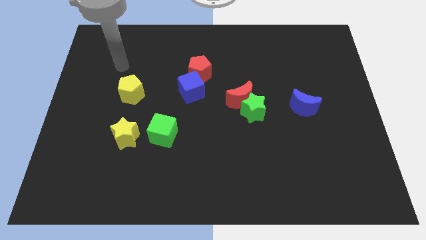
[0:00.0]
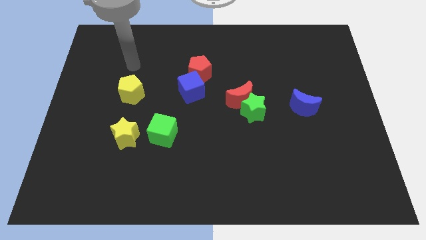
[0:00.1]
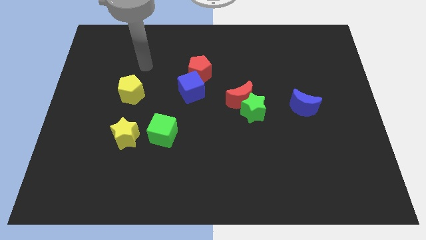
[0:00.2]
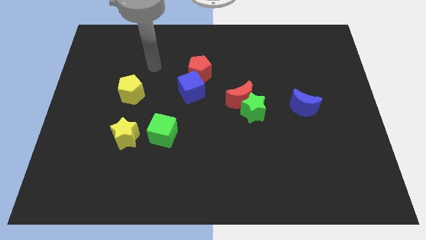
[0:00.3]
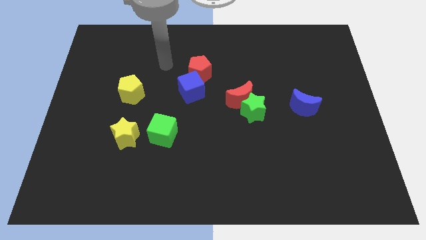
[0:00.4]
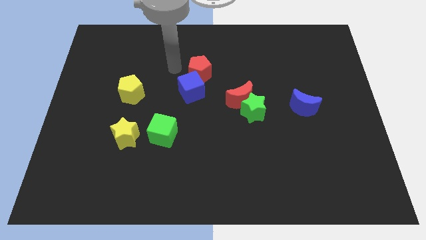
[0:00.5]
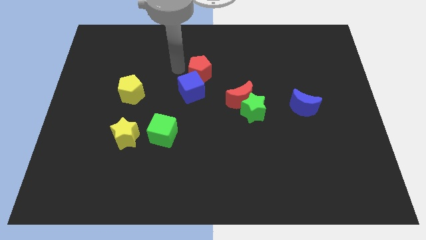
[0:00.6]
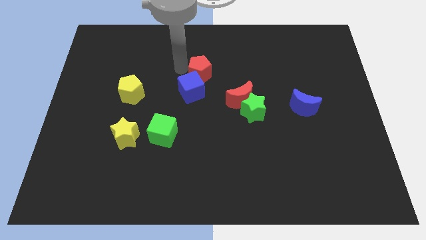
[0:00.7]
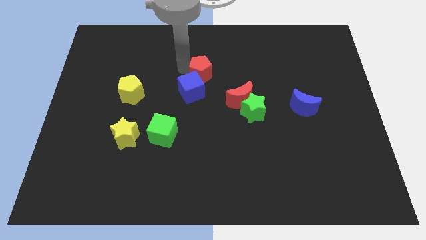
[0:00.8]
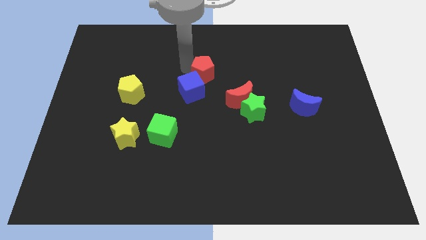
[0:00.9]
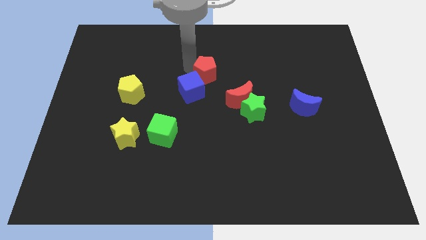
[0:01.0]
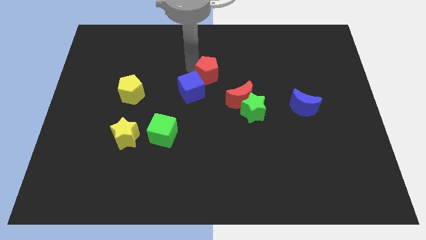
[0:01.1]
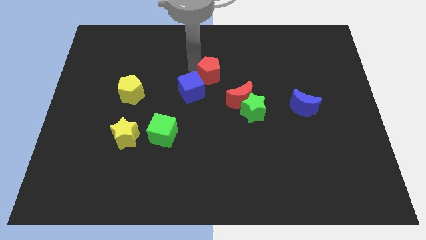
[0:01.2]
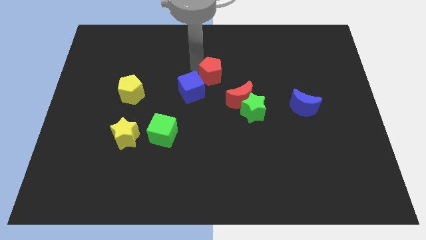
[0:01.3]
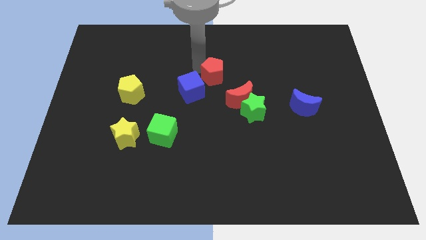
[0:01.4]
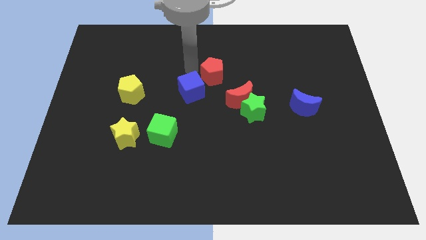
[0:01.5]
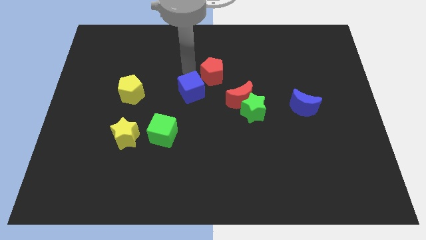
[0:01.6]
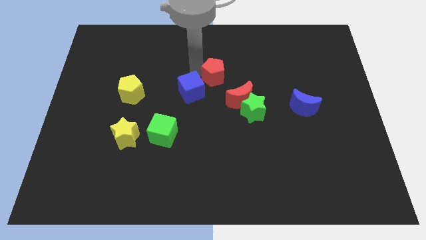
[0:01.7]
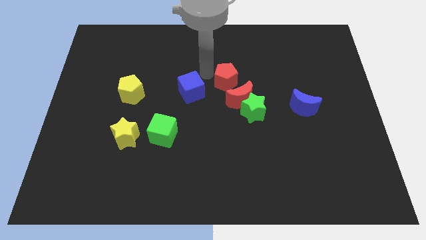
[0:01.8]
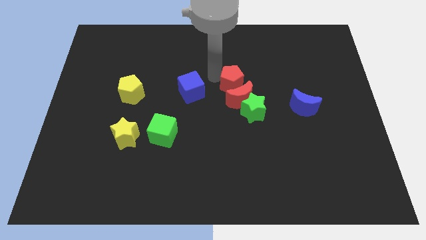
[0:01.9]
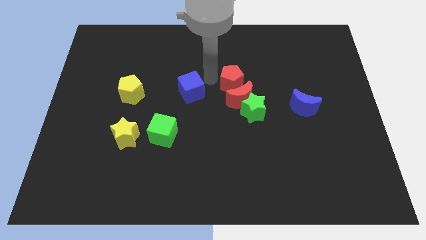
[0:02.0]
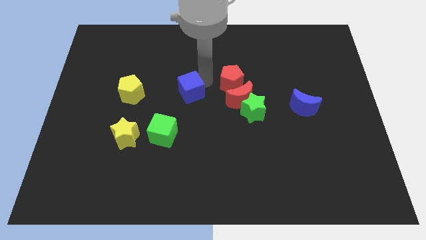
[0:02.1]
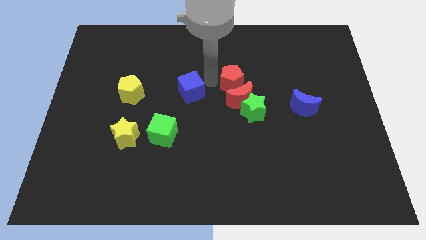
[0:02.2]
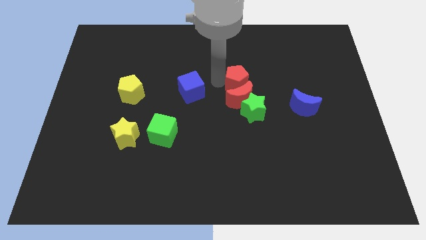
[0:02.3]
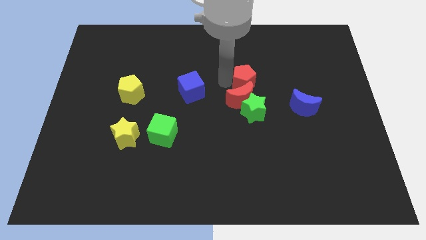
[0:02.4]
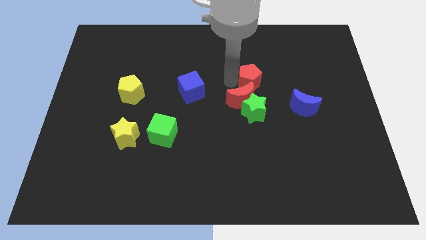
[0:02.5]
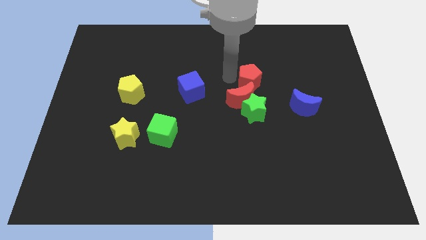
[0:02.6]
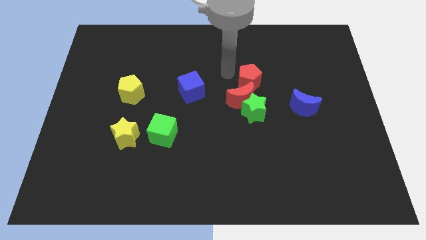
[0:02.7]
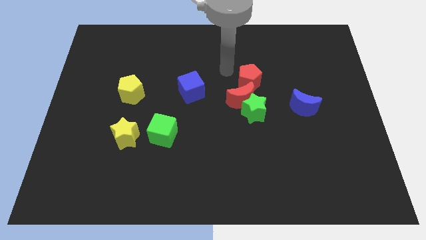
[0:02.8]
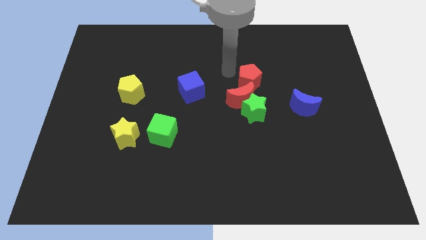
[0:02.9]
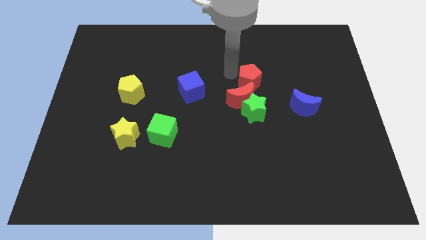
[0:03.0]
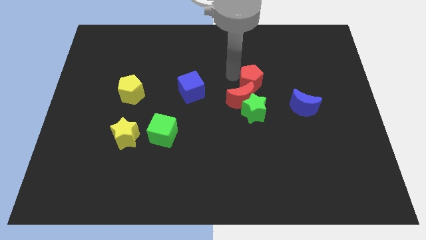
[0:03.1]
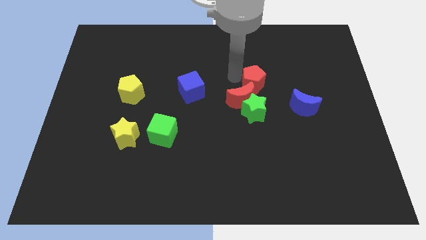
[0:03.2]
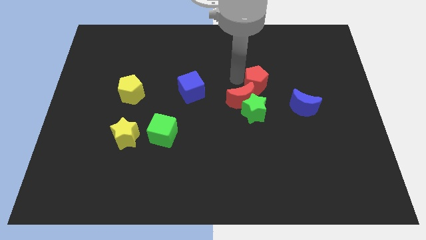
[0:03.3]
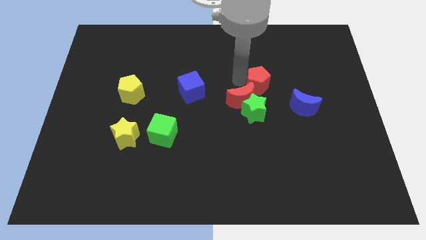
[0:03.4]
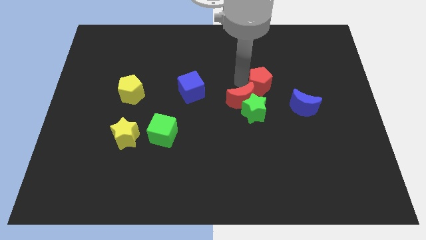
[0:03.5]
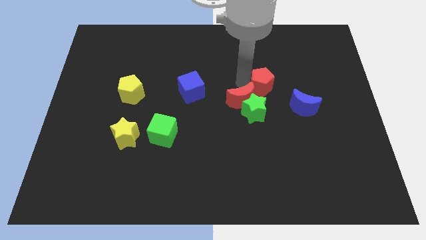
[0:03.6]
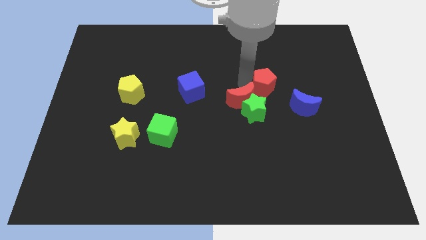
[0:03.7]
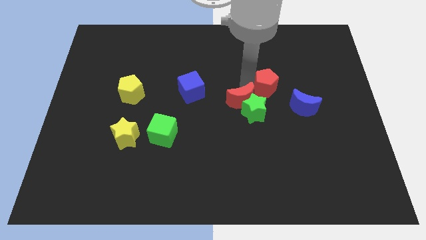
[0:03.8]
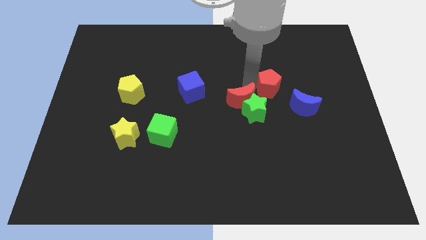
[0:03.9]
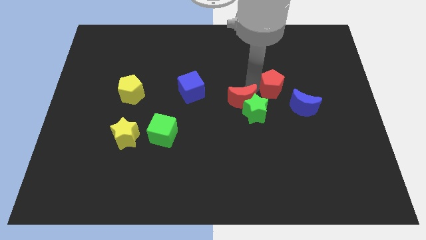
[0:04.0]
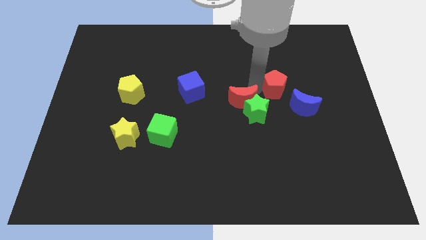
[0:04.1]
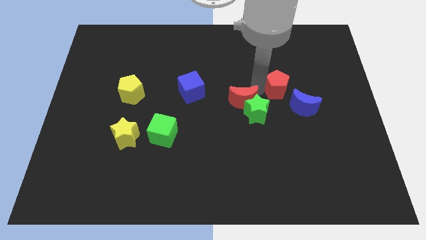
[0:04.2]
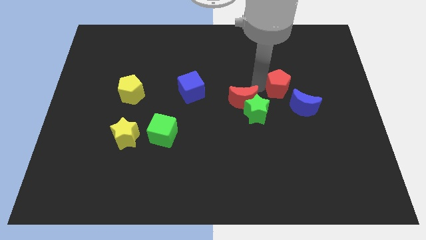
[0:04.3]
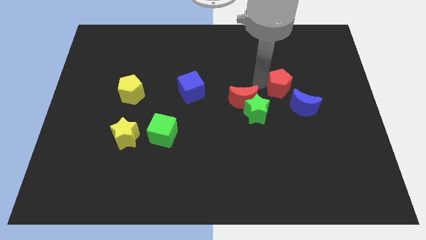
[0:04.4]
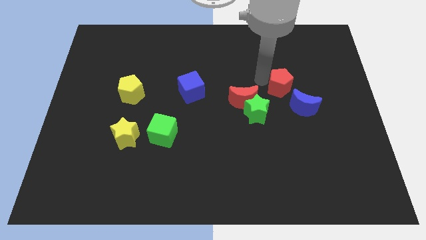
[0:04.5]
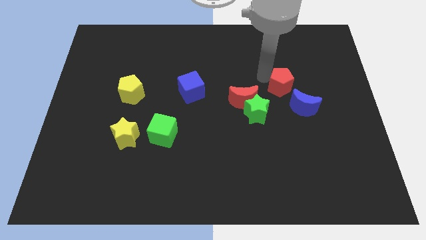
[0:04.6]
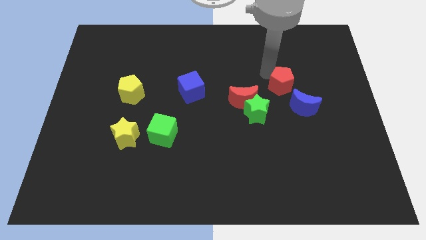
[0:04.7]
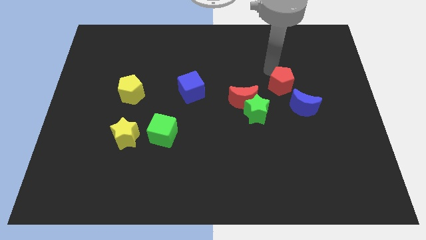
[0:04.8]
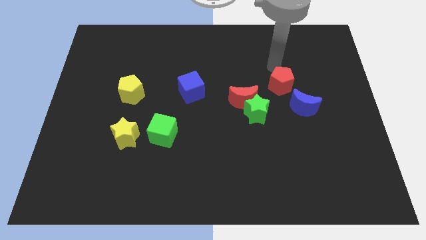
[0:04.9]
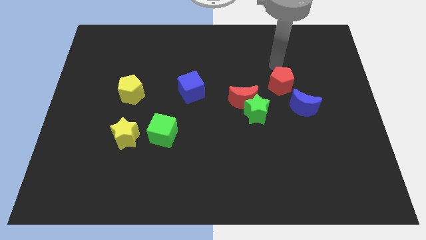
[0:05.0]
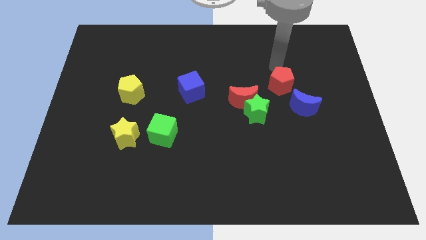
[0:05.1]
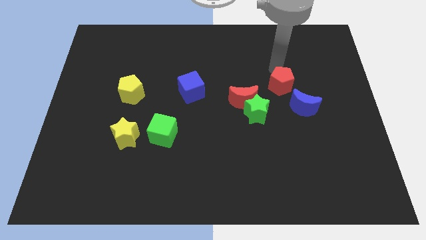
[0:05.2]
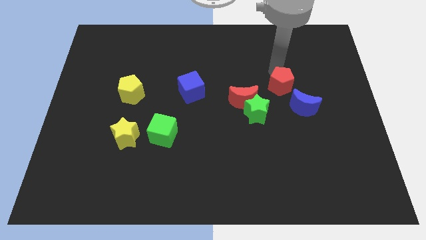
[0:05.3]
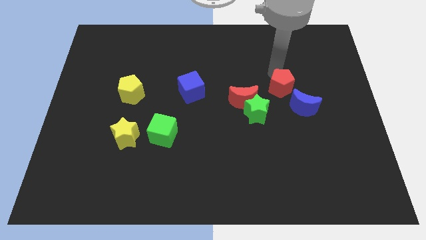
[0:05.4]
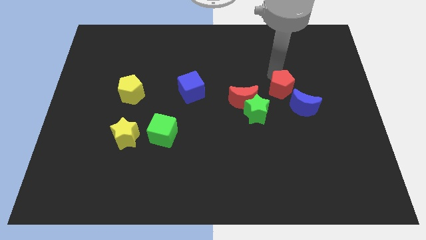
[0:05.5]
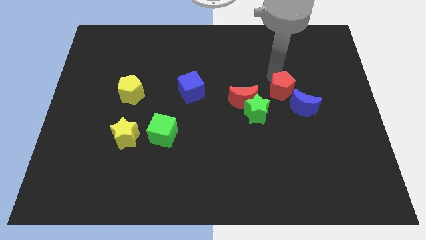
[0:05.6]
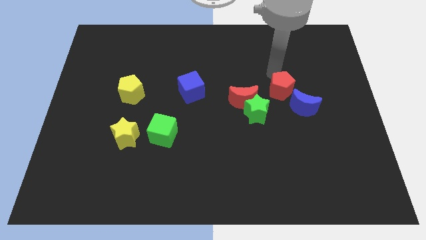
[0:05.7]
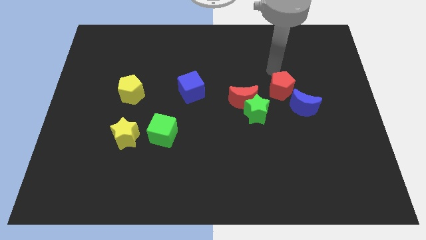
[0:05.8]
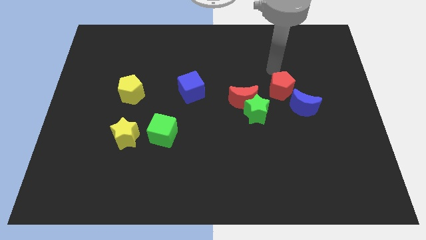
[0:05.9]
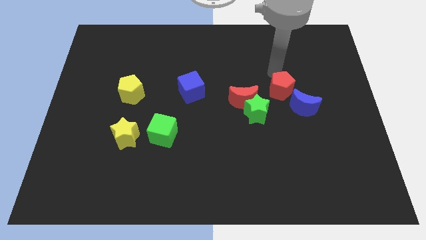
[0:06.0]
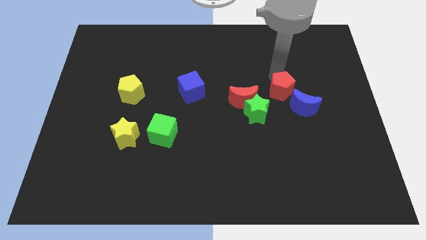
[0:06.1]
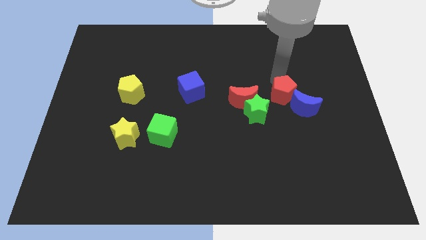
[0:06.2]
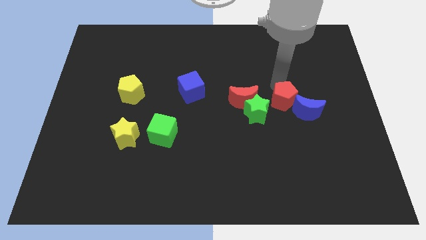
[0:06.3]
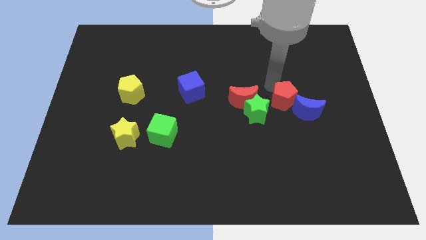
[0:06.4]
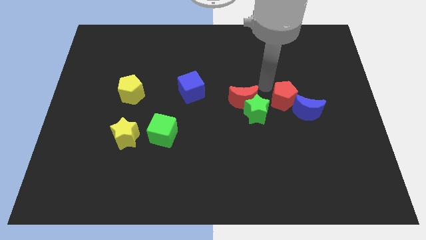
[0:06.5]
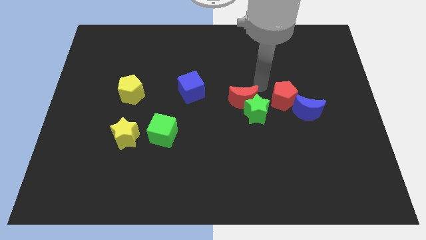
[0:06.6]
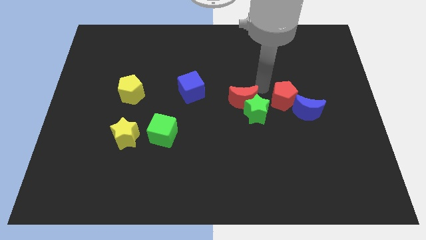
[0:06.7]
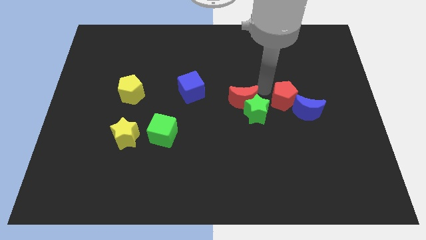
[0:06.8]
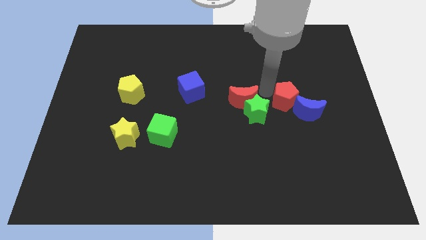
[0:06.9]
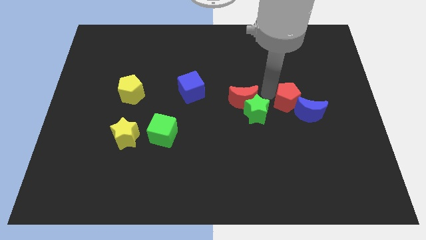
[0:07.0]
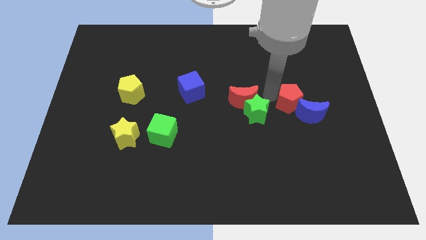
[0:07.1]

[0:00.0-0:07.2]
move the red pentagon to the blue moon
